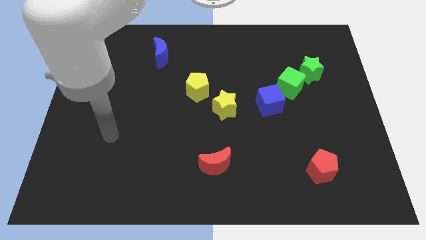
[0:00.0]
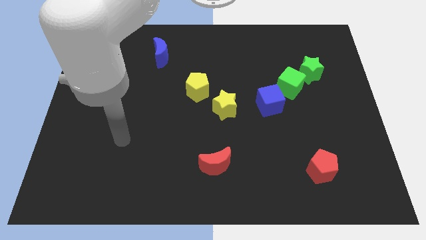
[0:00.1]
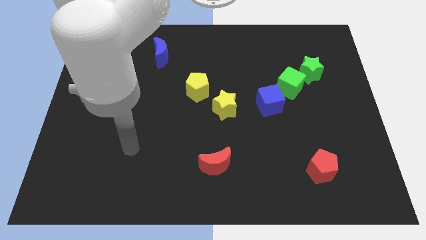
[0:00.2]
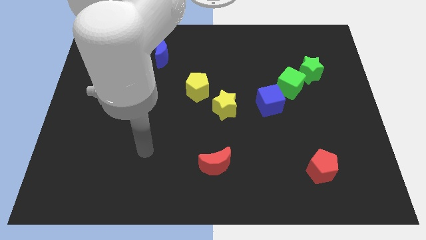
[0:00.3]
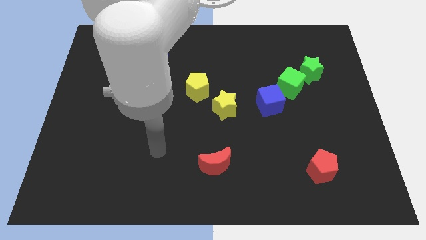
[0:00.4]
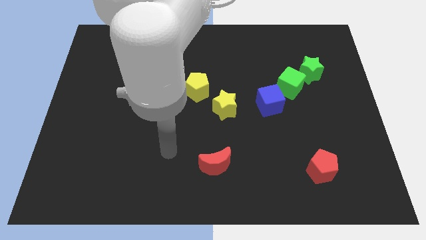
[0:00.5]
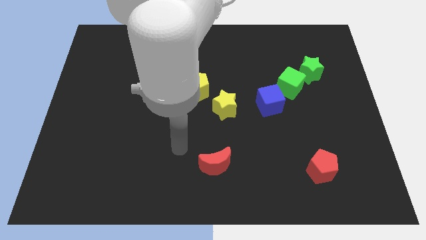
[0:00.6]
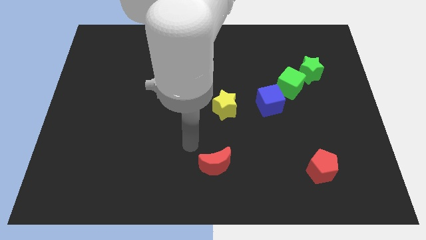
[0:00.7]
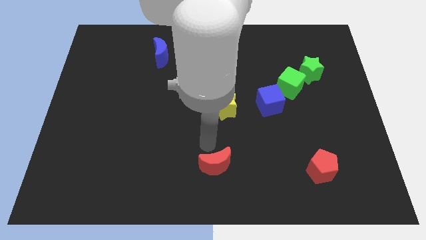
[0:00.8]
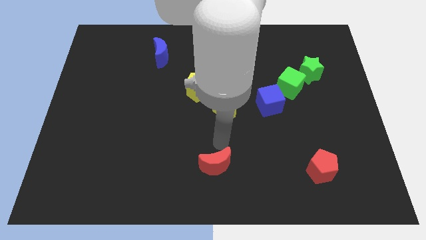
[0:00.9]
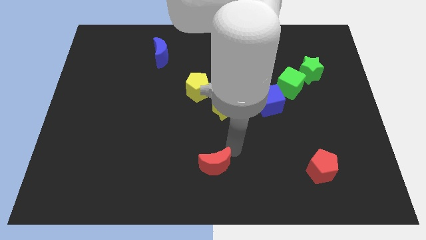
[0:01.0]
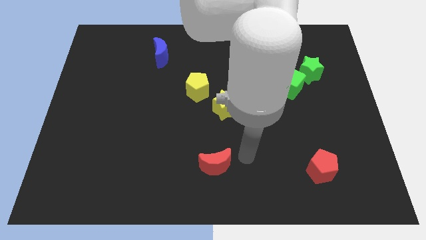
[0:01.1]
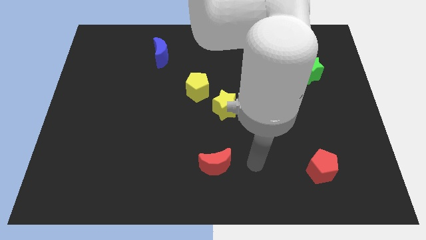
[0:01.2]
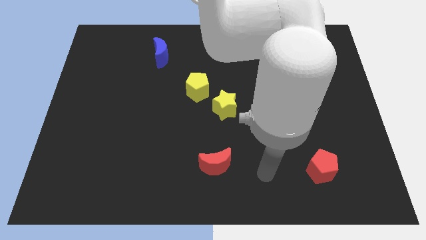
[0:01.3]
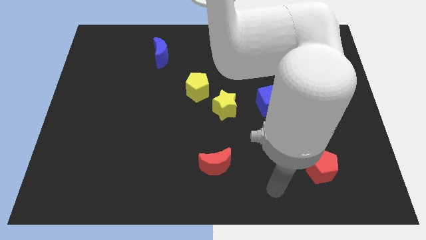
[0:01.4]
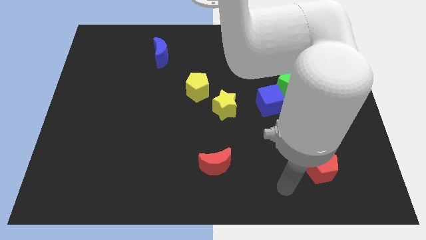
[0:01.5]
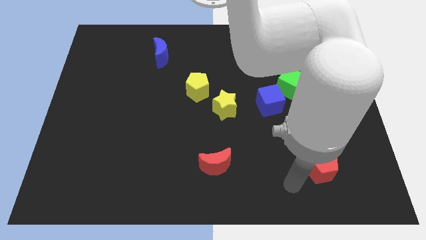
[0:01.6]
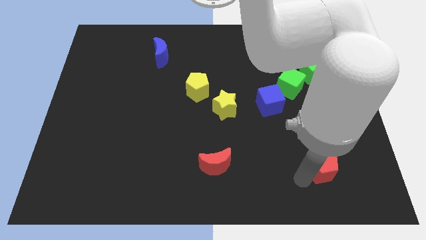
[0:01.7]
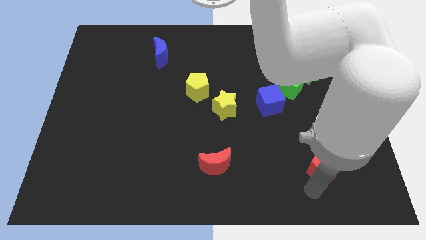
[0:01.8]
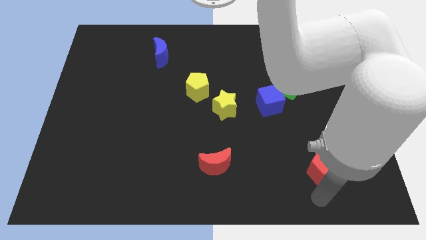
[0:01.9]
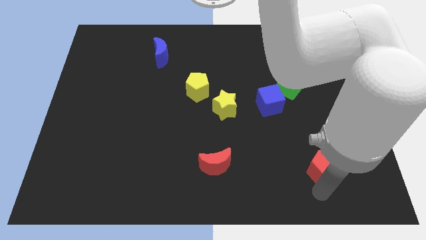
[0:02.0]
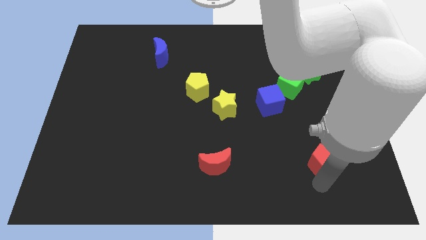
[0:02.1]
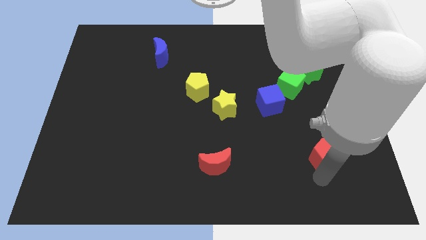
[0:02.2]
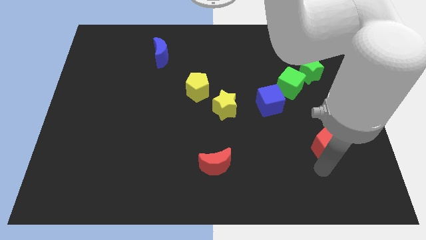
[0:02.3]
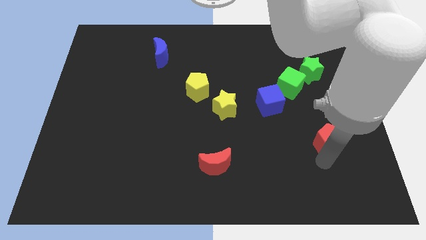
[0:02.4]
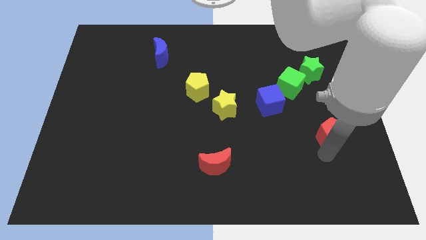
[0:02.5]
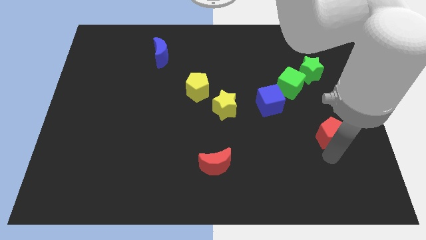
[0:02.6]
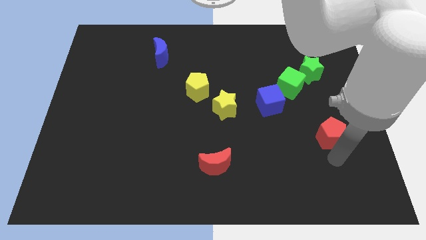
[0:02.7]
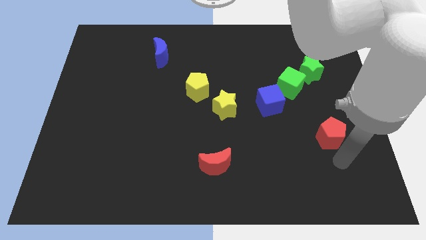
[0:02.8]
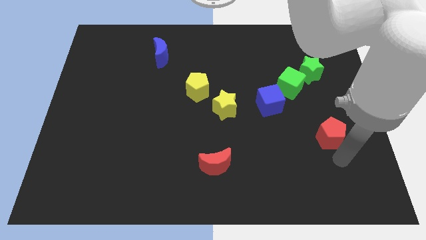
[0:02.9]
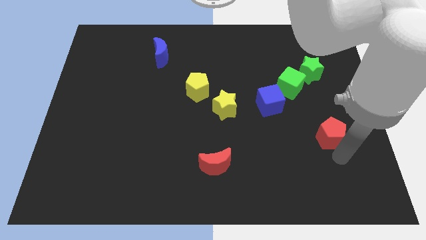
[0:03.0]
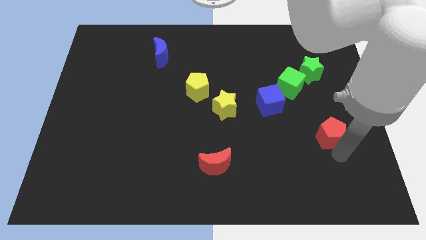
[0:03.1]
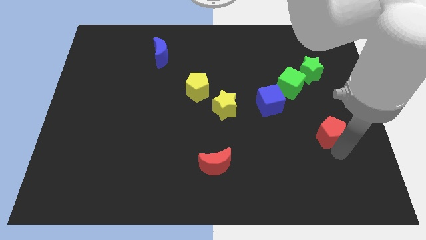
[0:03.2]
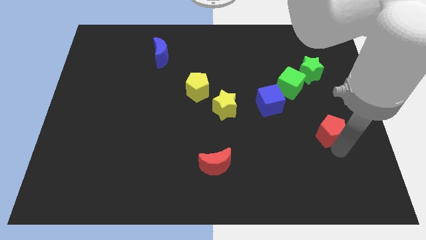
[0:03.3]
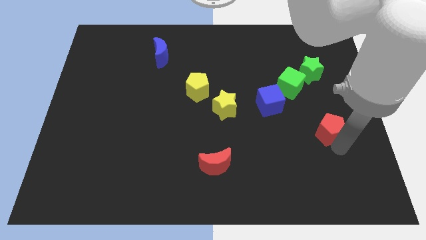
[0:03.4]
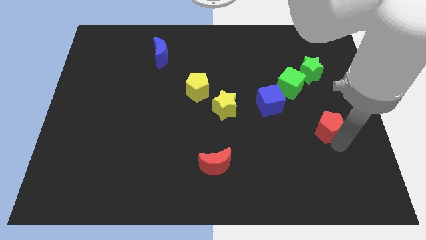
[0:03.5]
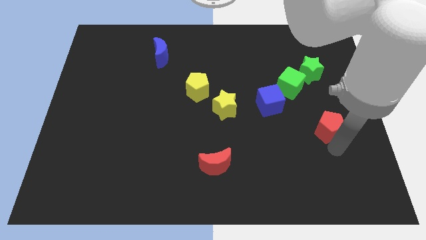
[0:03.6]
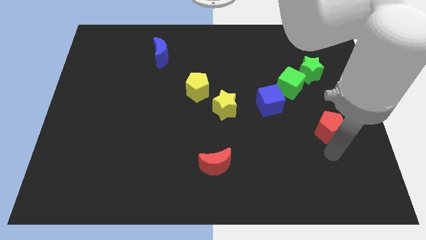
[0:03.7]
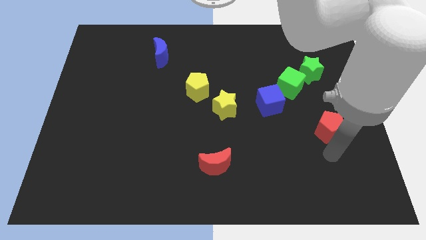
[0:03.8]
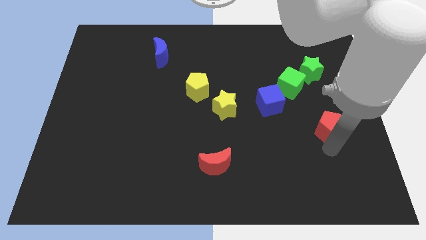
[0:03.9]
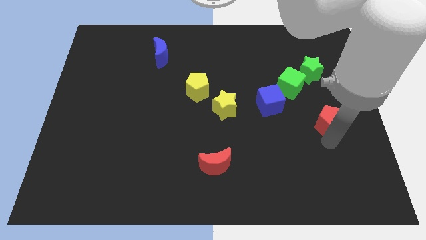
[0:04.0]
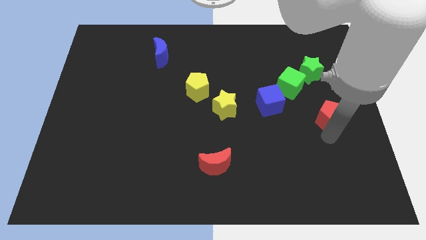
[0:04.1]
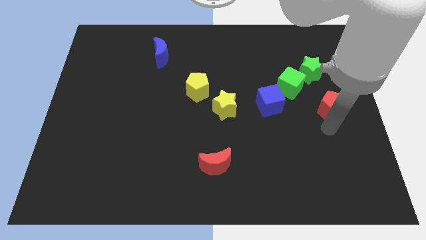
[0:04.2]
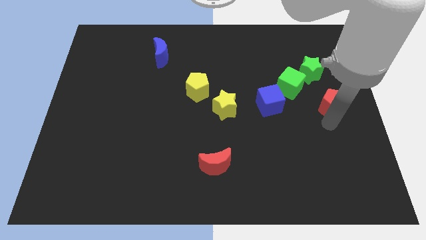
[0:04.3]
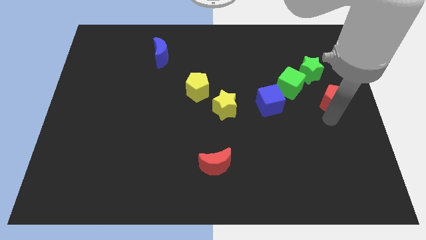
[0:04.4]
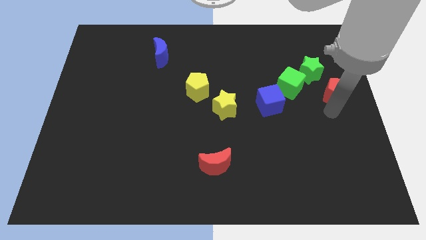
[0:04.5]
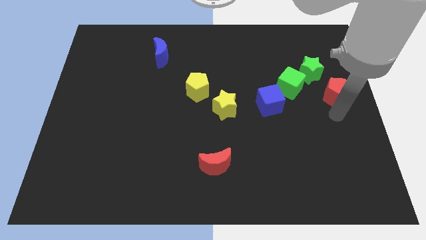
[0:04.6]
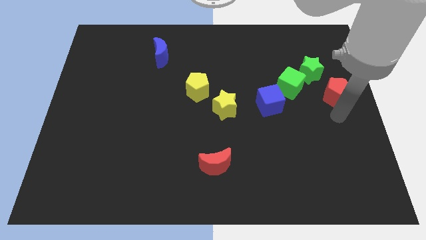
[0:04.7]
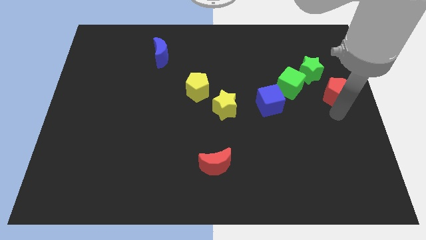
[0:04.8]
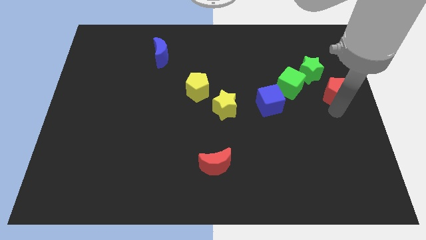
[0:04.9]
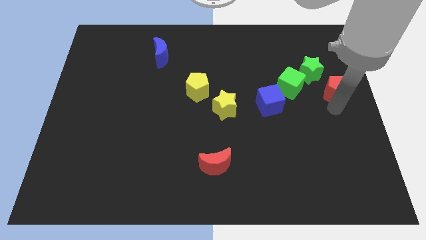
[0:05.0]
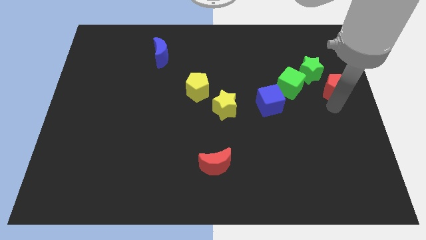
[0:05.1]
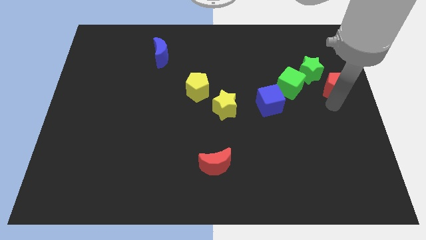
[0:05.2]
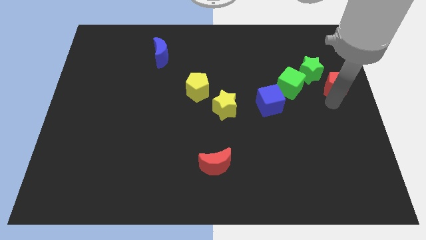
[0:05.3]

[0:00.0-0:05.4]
slide the red pentagon up

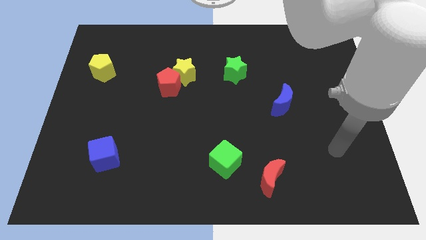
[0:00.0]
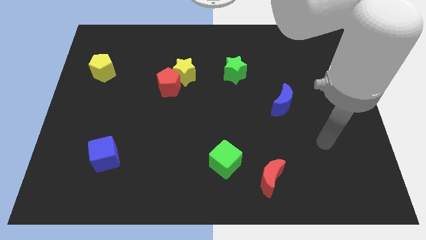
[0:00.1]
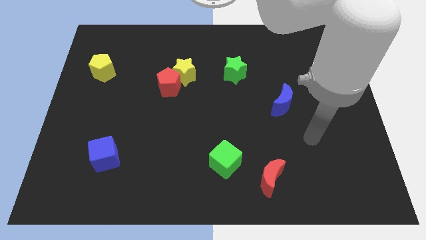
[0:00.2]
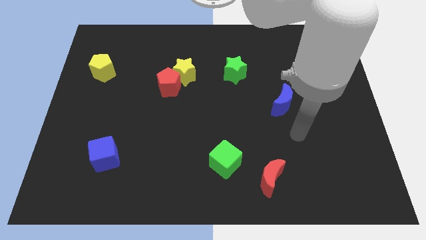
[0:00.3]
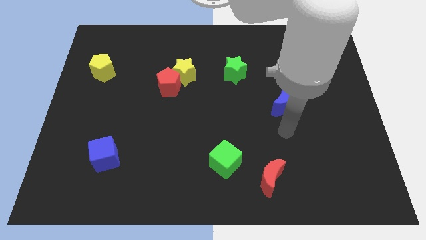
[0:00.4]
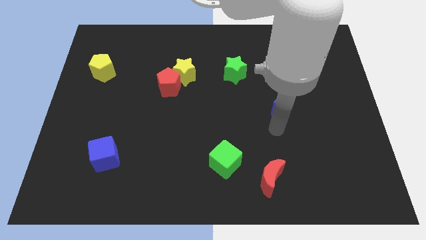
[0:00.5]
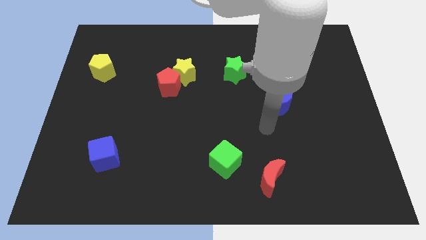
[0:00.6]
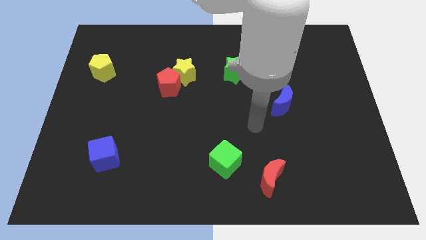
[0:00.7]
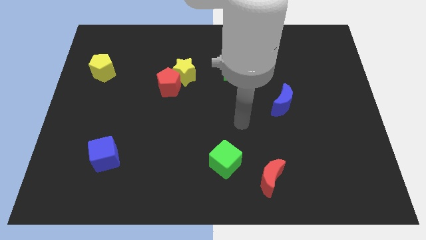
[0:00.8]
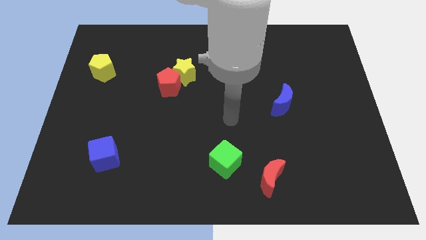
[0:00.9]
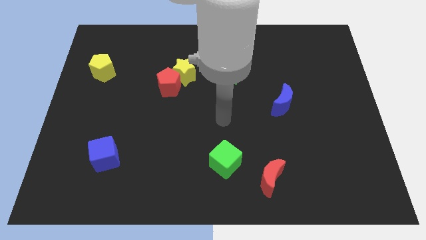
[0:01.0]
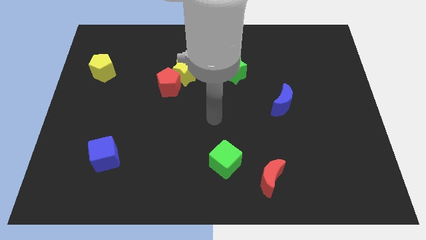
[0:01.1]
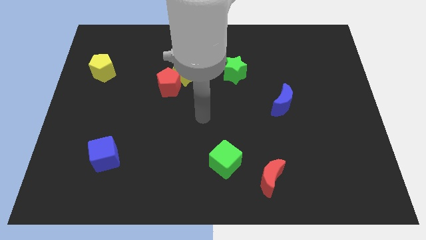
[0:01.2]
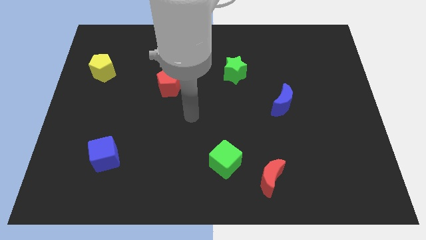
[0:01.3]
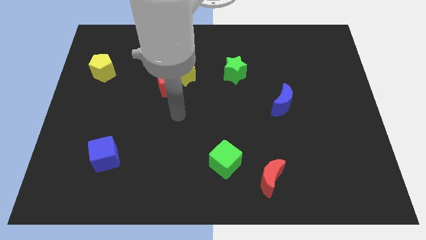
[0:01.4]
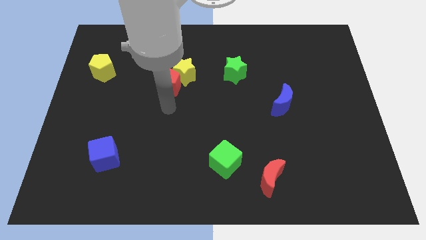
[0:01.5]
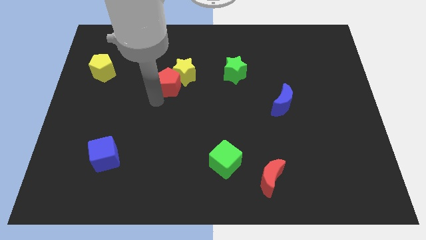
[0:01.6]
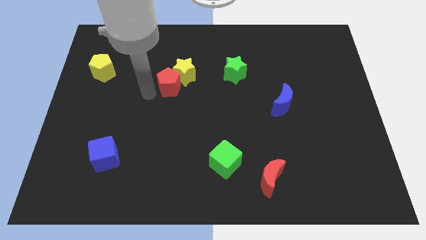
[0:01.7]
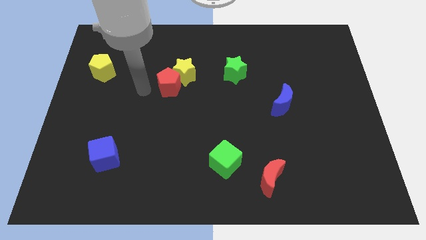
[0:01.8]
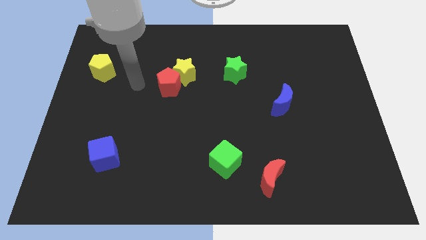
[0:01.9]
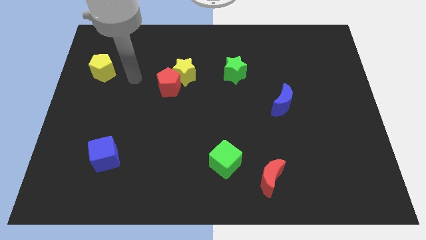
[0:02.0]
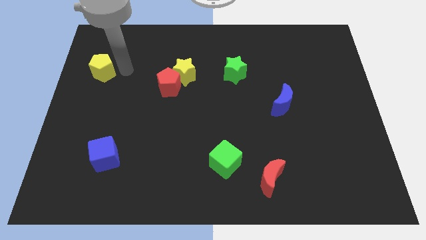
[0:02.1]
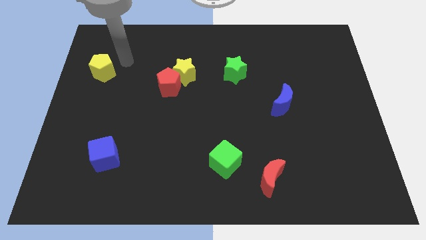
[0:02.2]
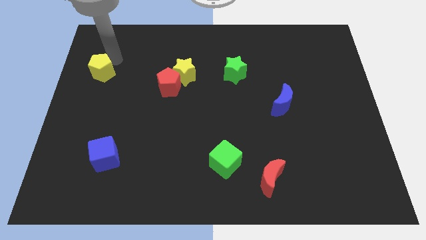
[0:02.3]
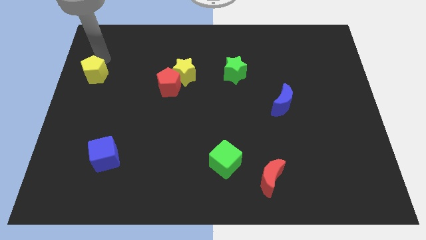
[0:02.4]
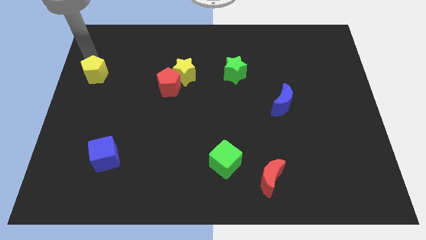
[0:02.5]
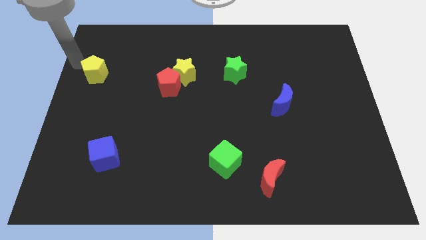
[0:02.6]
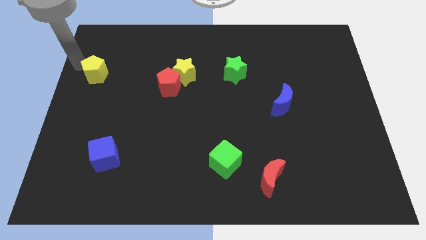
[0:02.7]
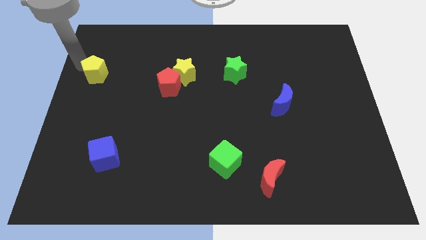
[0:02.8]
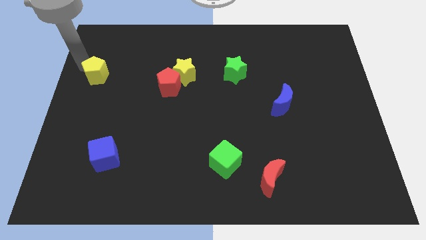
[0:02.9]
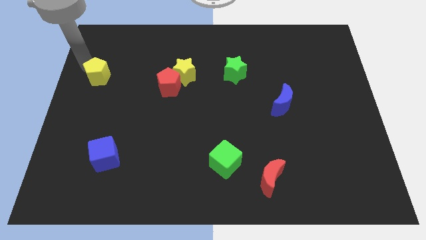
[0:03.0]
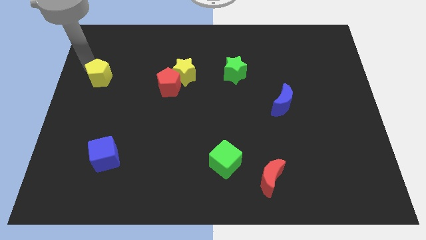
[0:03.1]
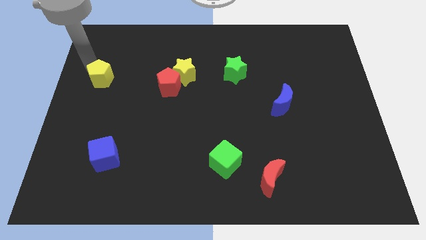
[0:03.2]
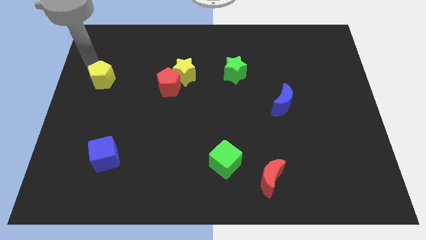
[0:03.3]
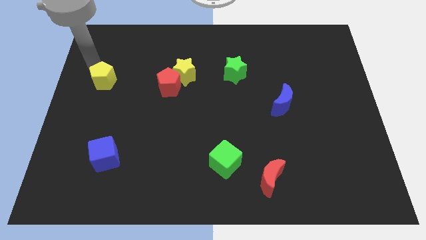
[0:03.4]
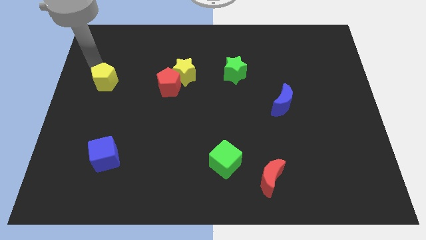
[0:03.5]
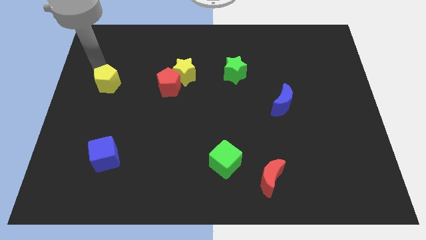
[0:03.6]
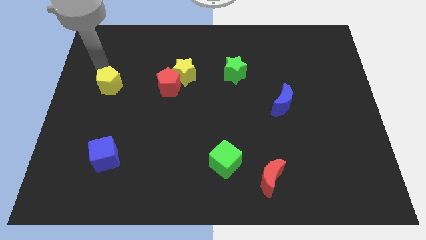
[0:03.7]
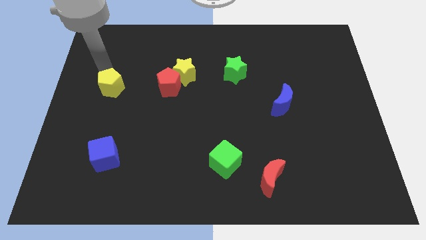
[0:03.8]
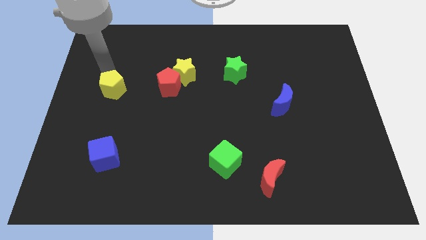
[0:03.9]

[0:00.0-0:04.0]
push the yellow pentagon slightly diagonally down and to the right
